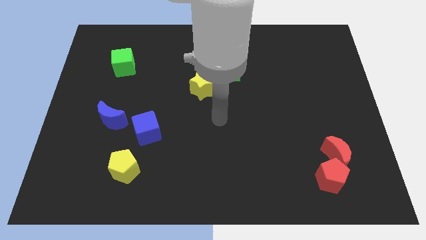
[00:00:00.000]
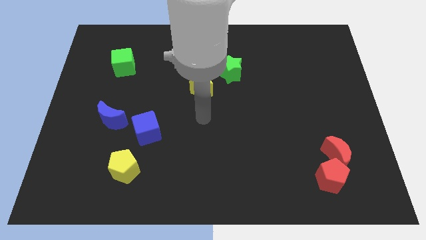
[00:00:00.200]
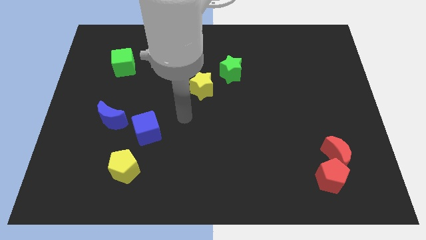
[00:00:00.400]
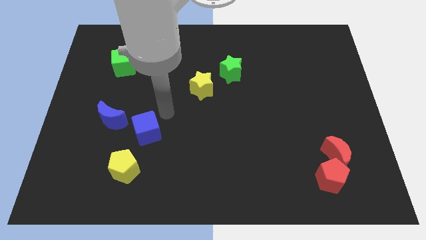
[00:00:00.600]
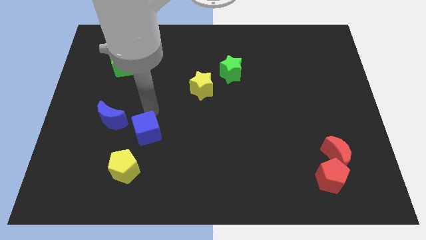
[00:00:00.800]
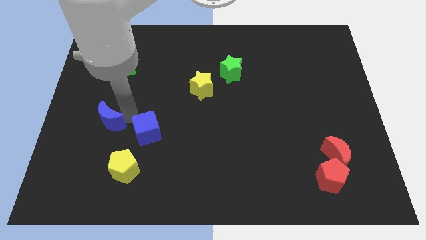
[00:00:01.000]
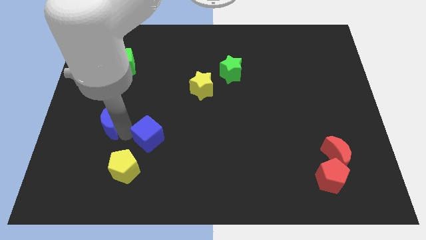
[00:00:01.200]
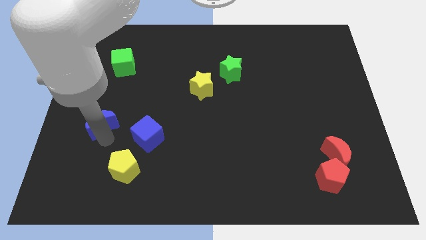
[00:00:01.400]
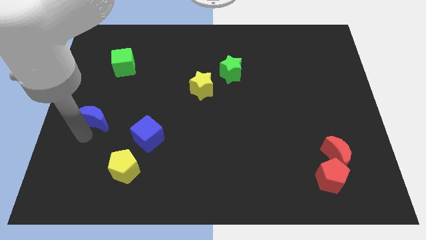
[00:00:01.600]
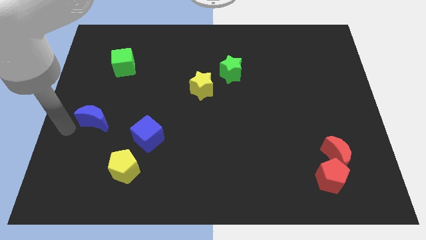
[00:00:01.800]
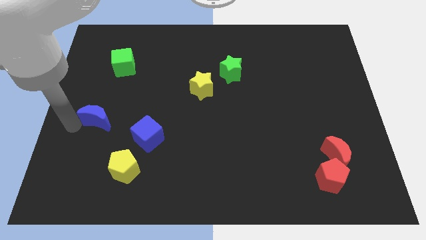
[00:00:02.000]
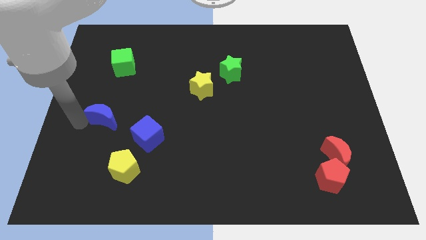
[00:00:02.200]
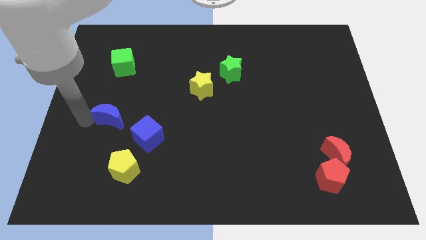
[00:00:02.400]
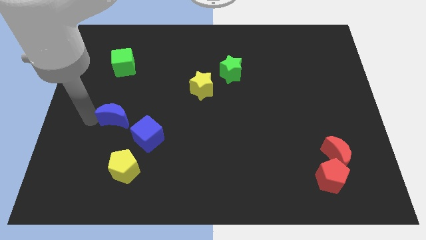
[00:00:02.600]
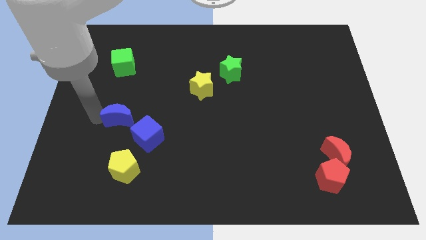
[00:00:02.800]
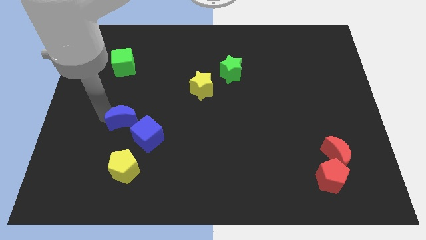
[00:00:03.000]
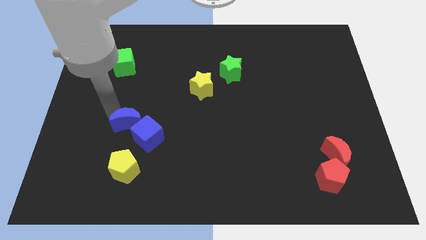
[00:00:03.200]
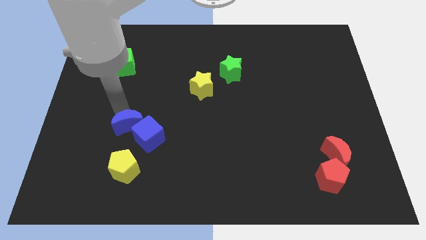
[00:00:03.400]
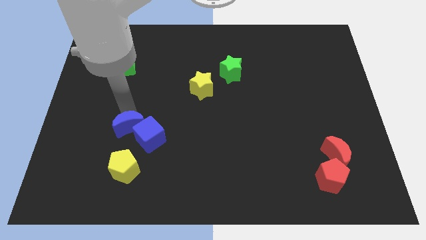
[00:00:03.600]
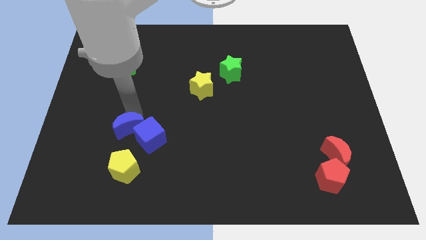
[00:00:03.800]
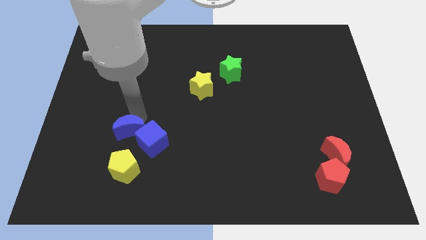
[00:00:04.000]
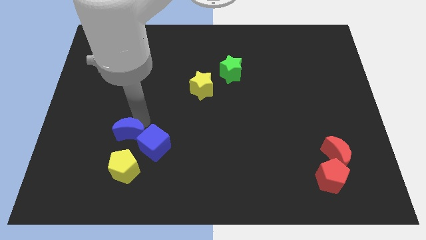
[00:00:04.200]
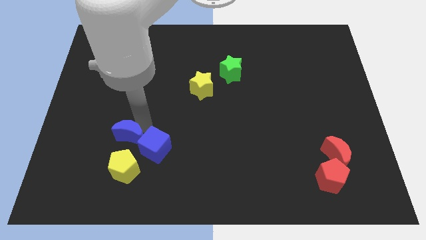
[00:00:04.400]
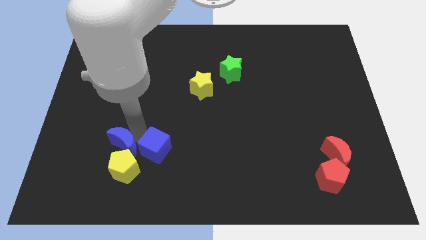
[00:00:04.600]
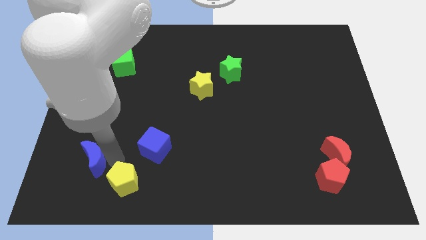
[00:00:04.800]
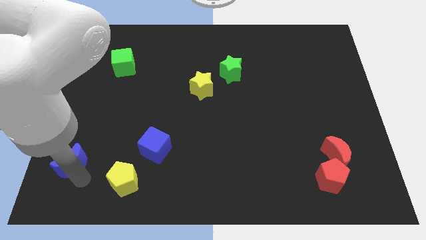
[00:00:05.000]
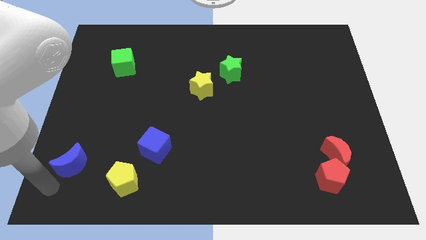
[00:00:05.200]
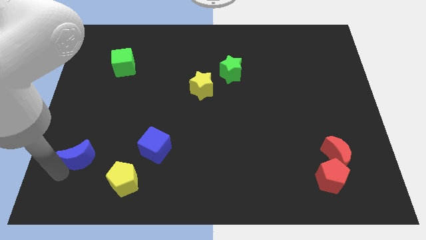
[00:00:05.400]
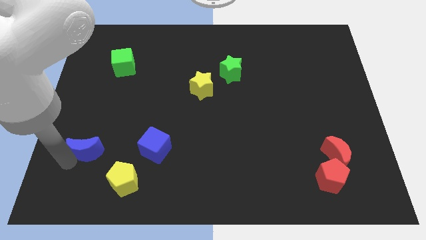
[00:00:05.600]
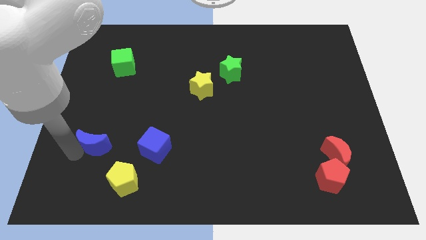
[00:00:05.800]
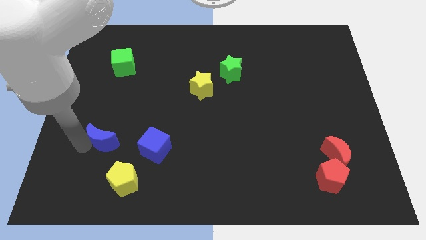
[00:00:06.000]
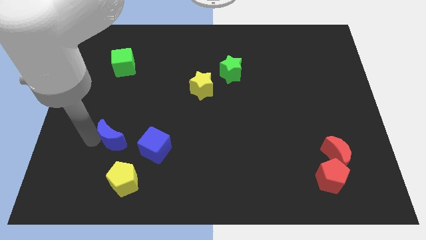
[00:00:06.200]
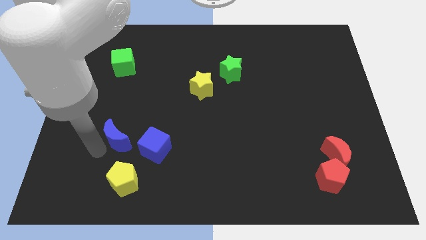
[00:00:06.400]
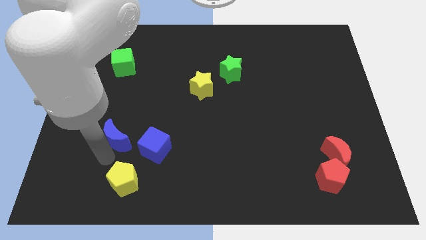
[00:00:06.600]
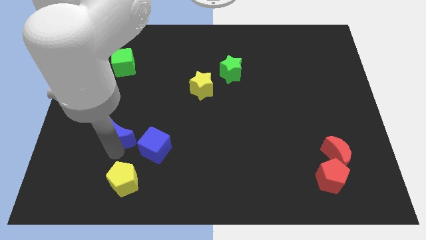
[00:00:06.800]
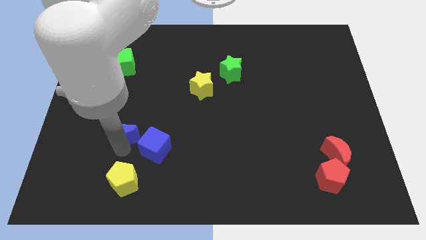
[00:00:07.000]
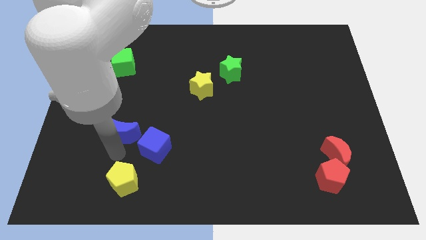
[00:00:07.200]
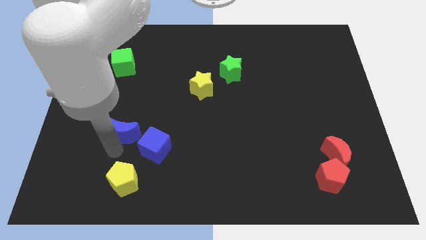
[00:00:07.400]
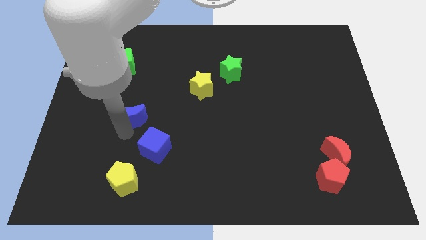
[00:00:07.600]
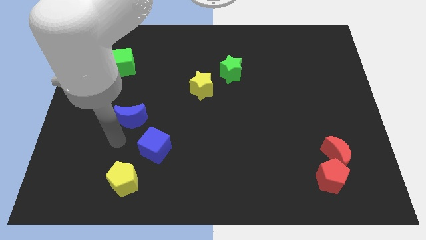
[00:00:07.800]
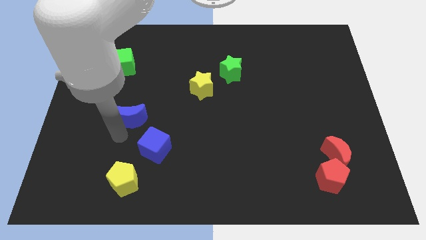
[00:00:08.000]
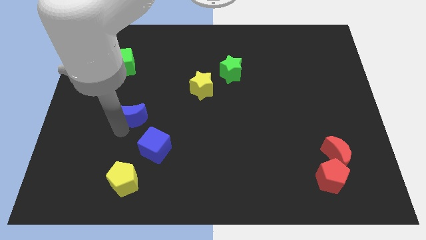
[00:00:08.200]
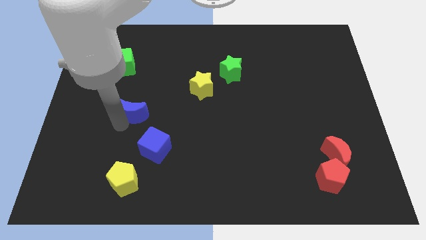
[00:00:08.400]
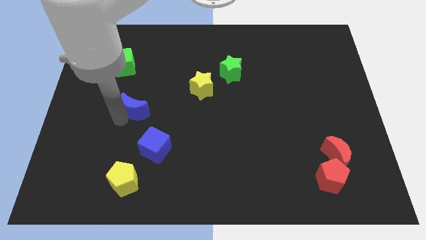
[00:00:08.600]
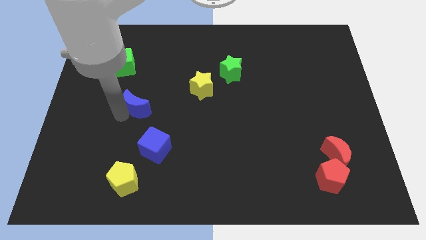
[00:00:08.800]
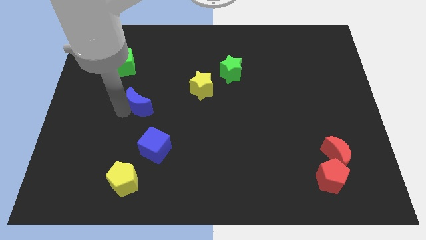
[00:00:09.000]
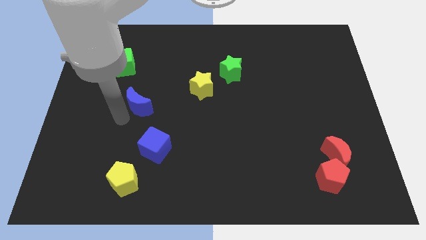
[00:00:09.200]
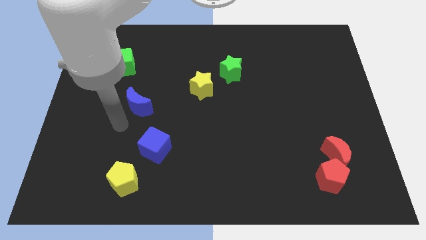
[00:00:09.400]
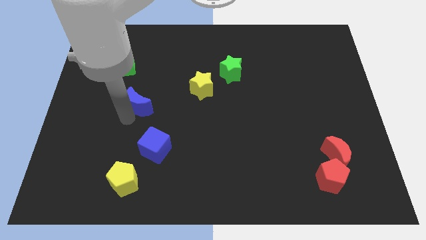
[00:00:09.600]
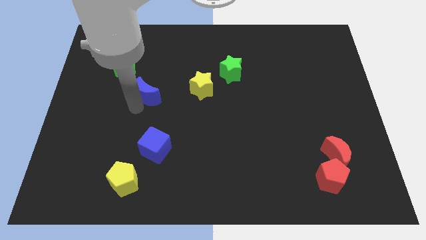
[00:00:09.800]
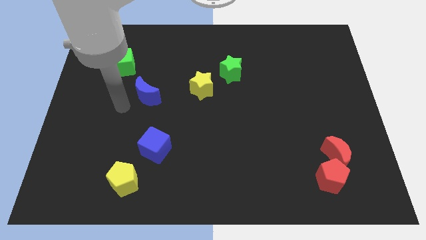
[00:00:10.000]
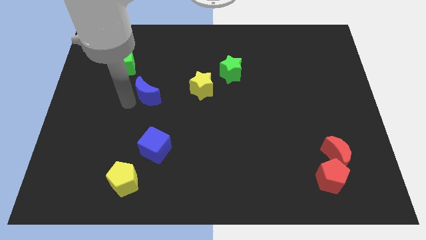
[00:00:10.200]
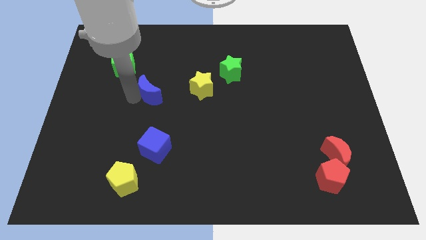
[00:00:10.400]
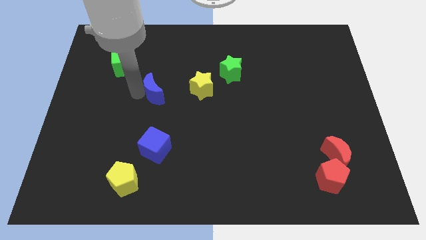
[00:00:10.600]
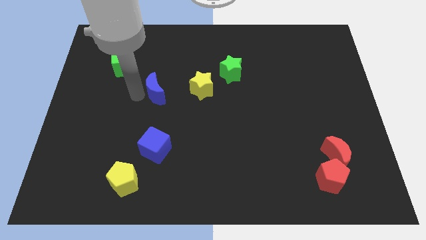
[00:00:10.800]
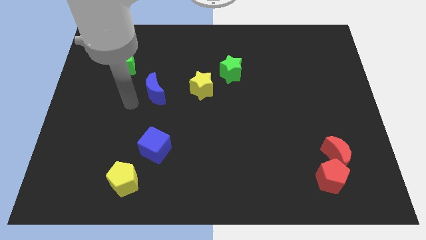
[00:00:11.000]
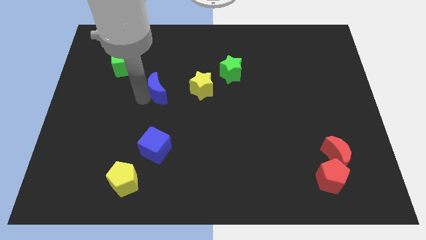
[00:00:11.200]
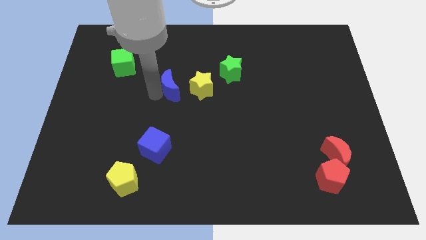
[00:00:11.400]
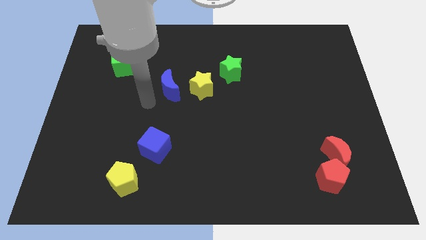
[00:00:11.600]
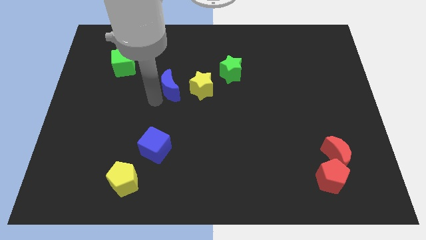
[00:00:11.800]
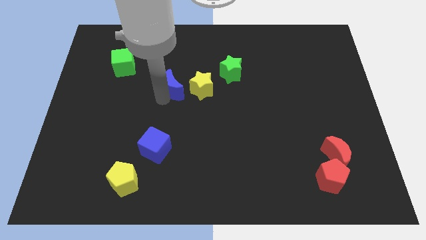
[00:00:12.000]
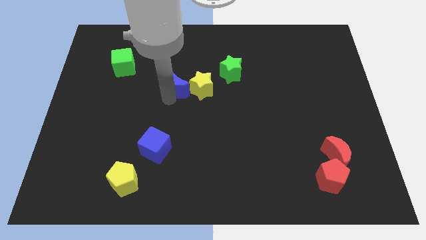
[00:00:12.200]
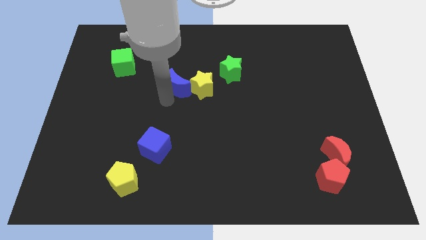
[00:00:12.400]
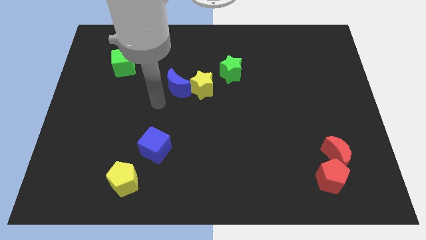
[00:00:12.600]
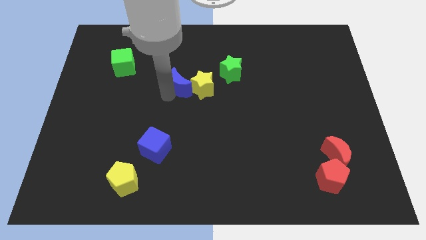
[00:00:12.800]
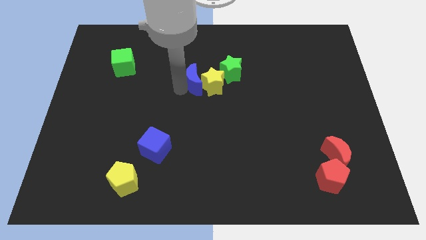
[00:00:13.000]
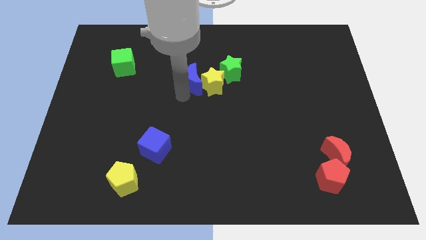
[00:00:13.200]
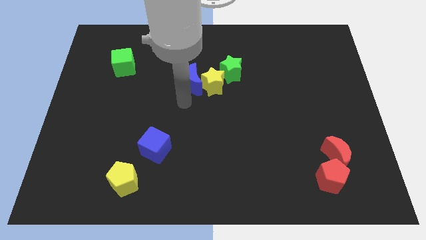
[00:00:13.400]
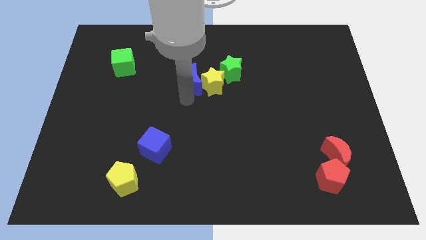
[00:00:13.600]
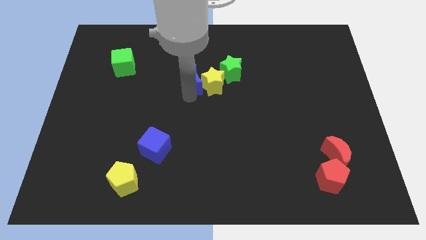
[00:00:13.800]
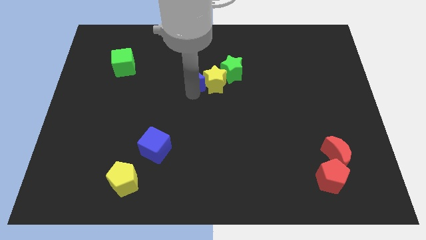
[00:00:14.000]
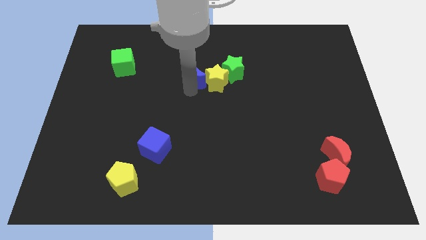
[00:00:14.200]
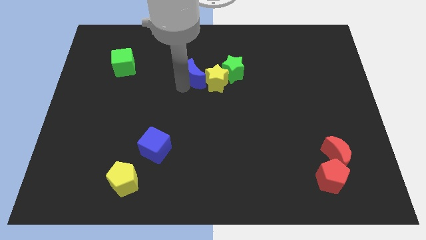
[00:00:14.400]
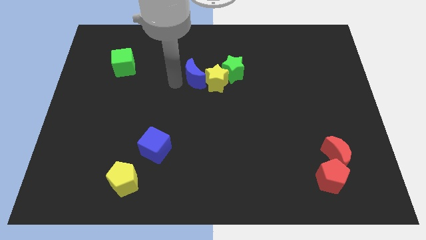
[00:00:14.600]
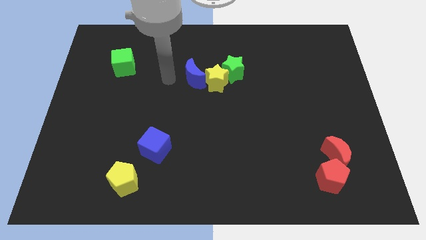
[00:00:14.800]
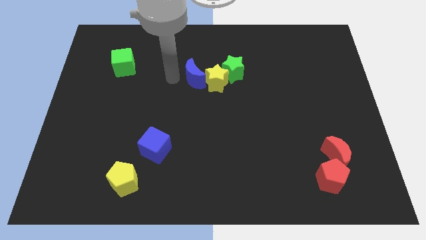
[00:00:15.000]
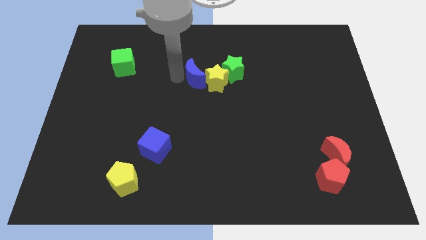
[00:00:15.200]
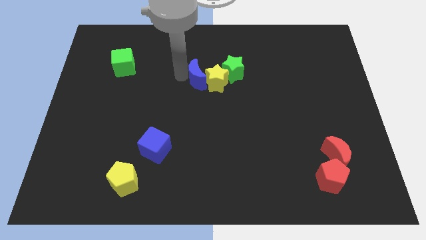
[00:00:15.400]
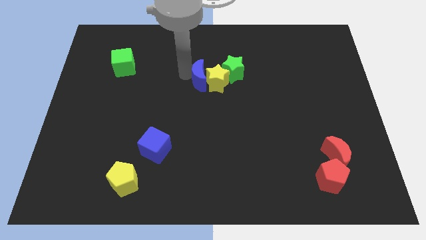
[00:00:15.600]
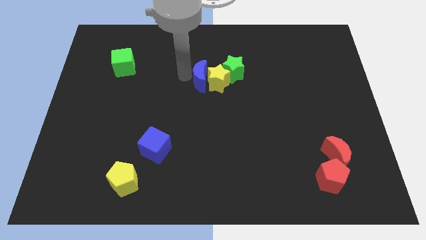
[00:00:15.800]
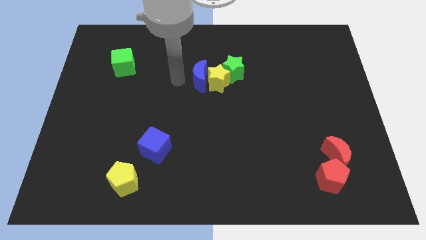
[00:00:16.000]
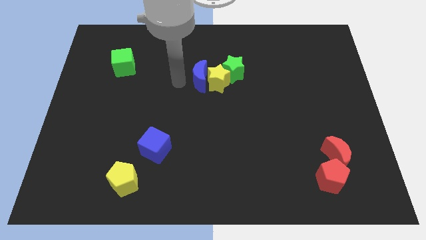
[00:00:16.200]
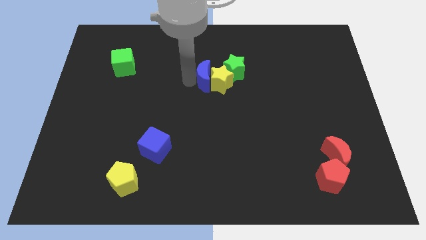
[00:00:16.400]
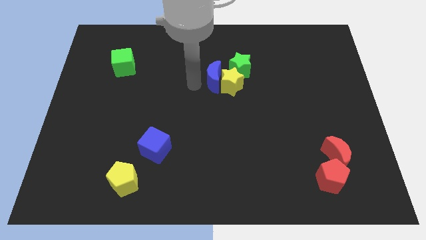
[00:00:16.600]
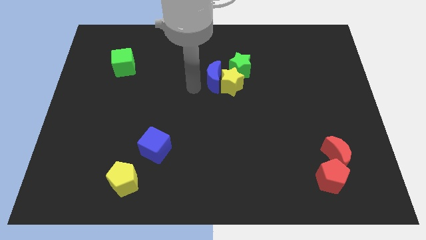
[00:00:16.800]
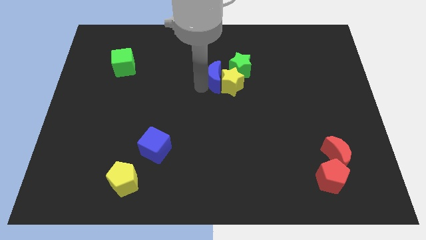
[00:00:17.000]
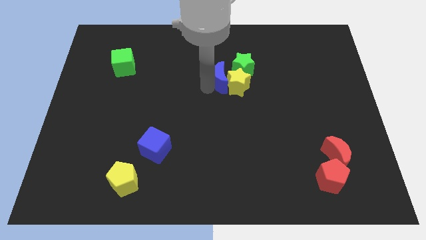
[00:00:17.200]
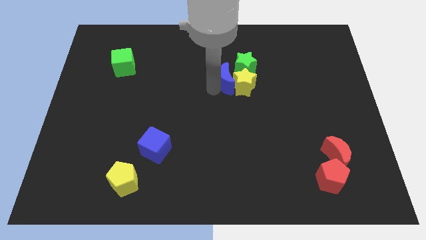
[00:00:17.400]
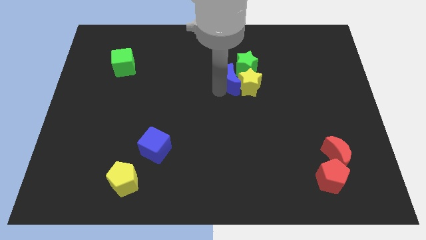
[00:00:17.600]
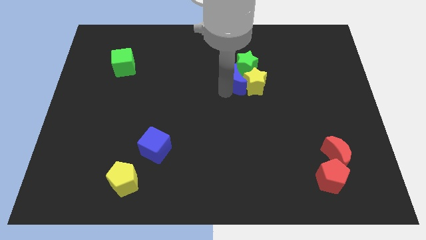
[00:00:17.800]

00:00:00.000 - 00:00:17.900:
push the blue moon to the green star
